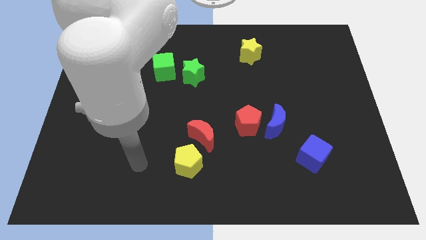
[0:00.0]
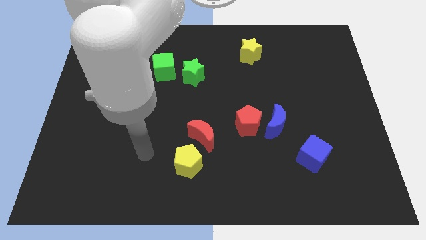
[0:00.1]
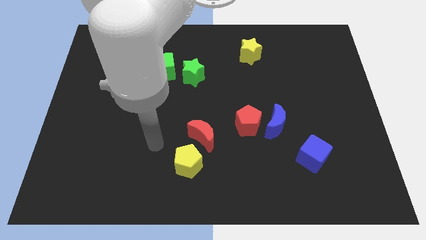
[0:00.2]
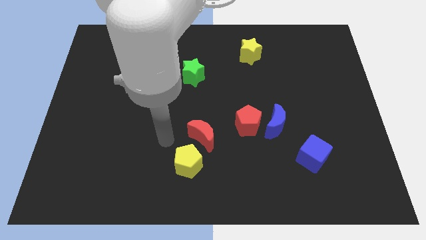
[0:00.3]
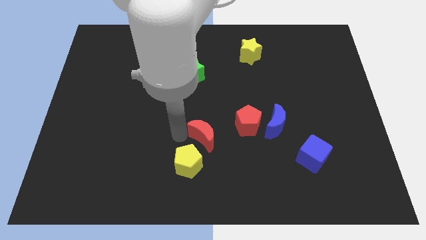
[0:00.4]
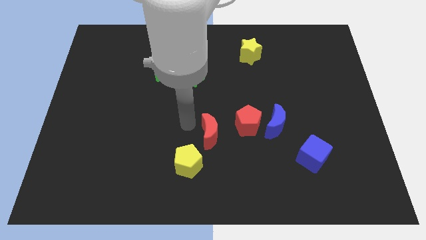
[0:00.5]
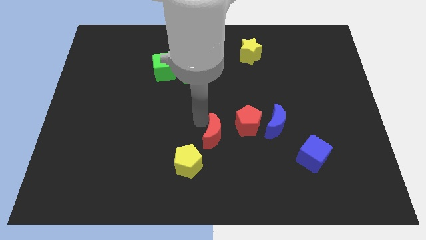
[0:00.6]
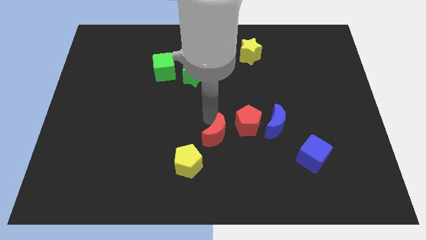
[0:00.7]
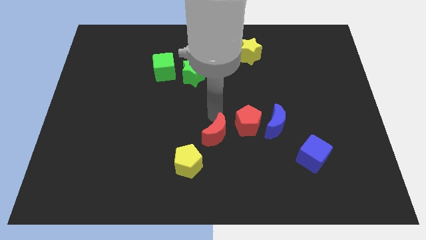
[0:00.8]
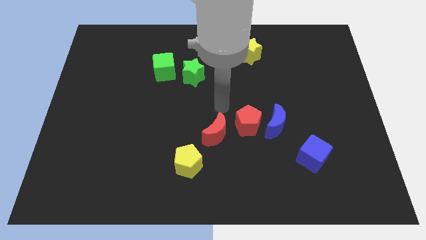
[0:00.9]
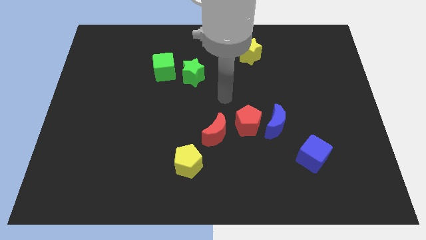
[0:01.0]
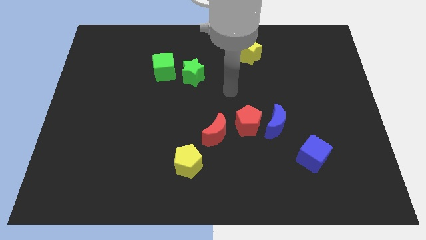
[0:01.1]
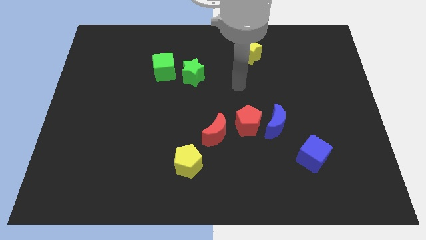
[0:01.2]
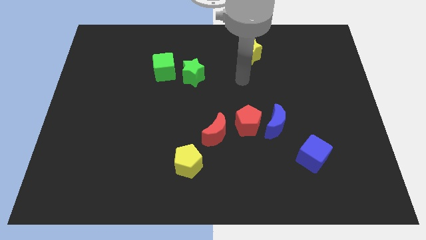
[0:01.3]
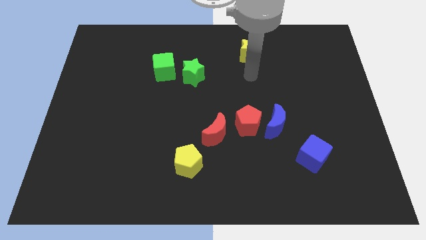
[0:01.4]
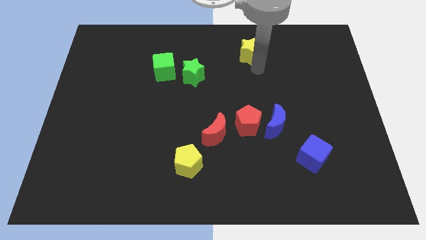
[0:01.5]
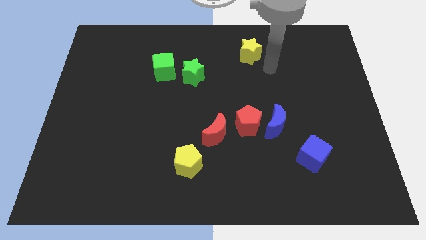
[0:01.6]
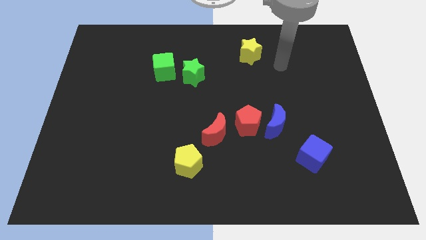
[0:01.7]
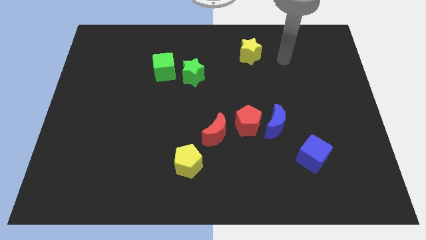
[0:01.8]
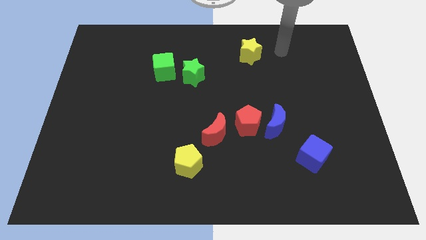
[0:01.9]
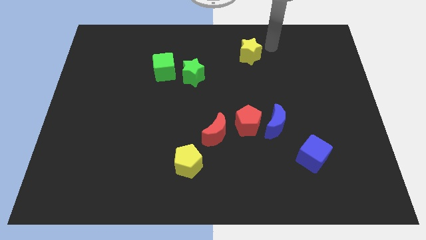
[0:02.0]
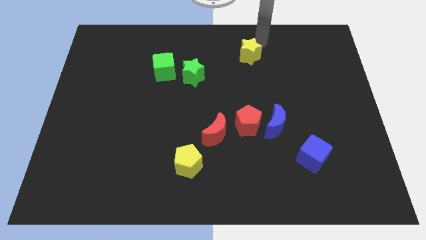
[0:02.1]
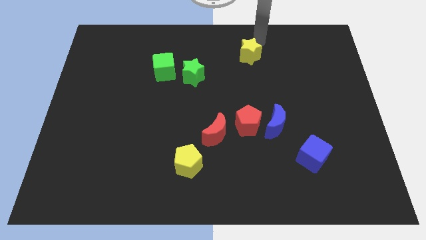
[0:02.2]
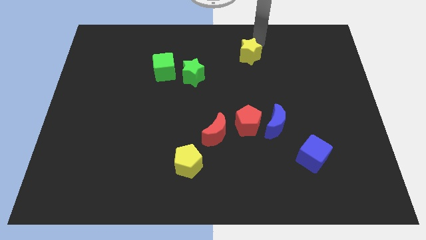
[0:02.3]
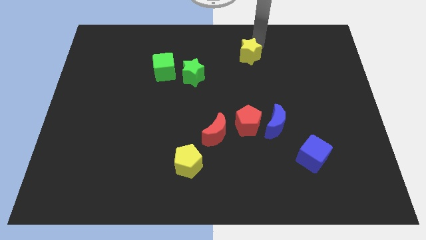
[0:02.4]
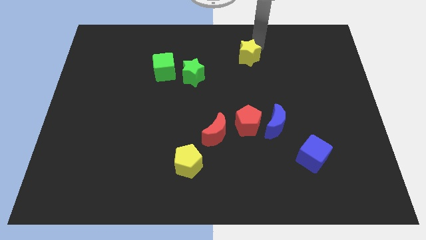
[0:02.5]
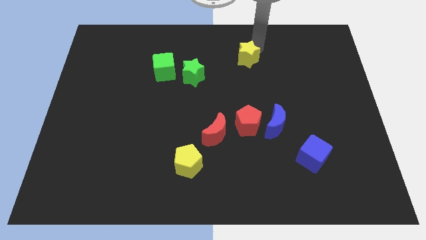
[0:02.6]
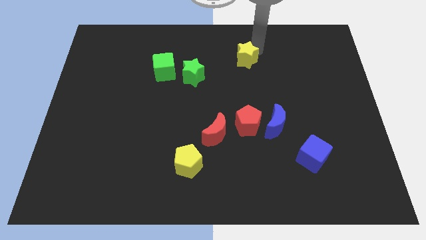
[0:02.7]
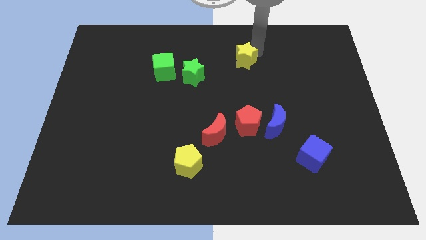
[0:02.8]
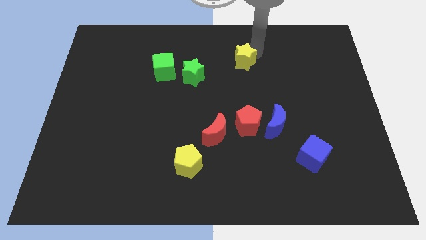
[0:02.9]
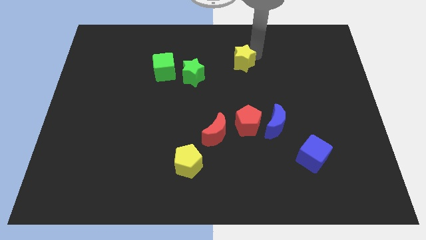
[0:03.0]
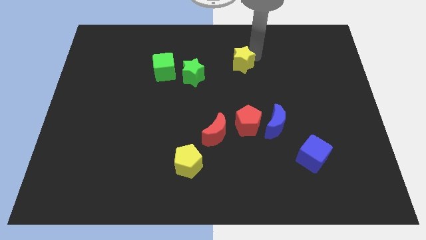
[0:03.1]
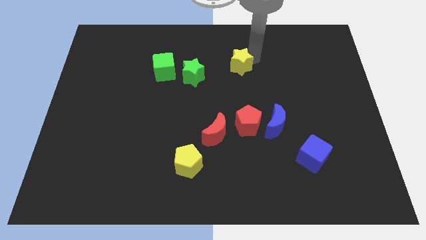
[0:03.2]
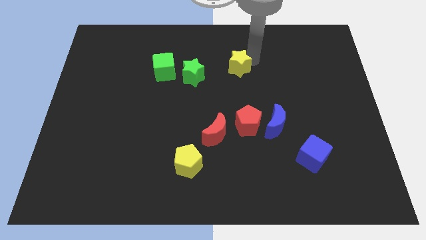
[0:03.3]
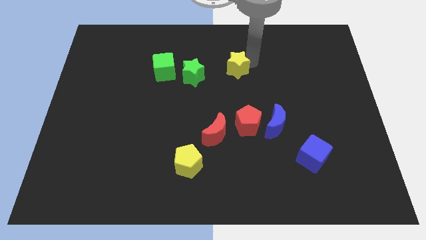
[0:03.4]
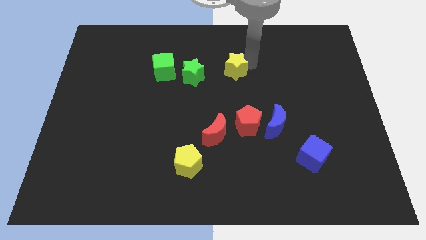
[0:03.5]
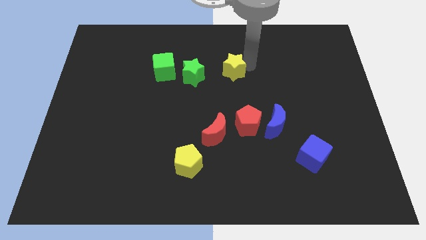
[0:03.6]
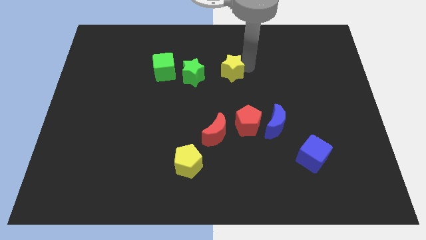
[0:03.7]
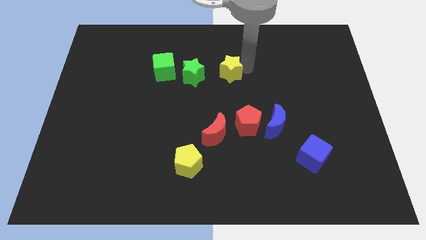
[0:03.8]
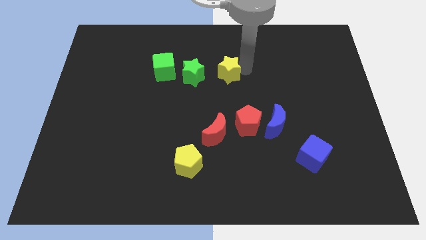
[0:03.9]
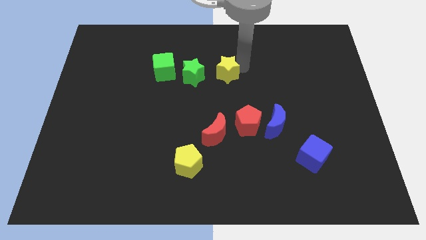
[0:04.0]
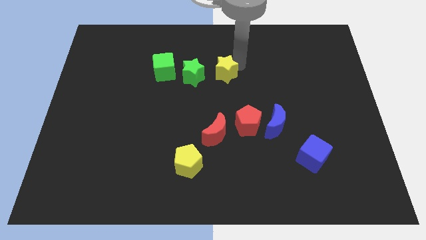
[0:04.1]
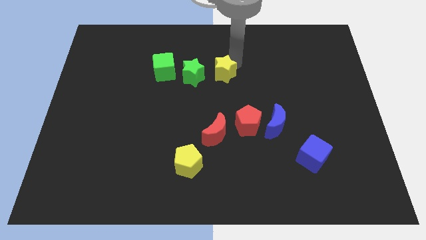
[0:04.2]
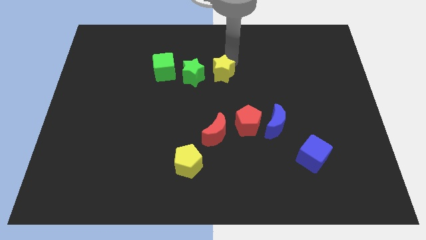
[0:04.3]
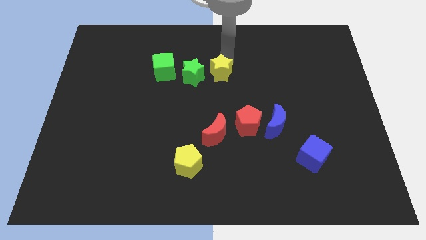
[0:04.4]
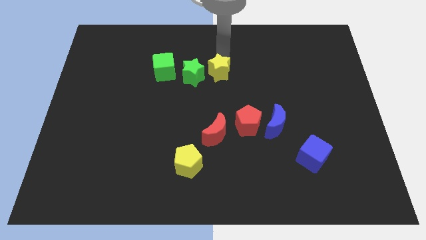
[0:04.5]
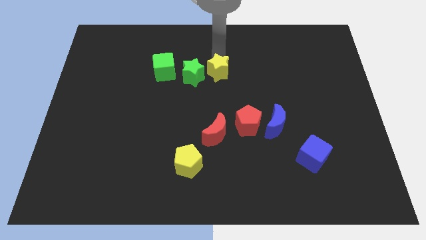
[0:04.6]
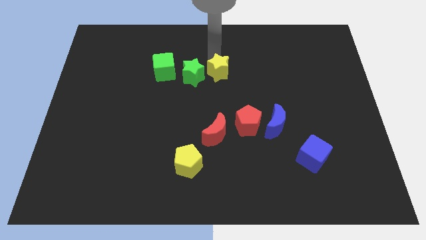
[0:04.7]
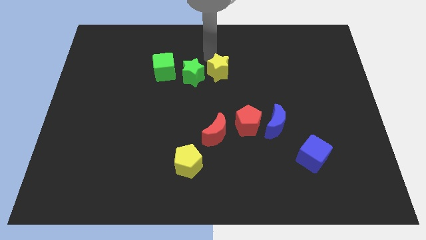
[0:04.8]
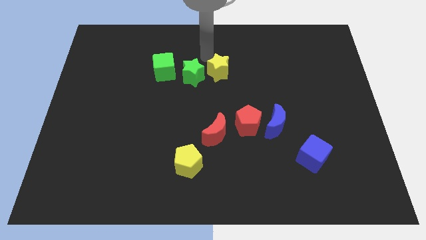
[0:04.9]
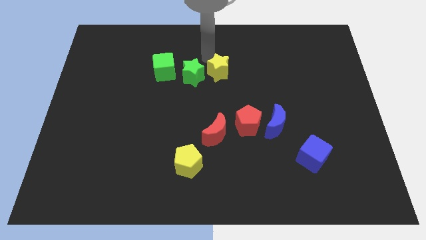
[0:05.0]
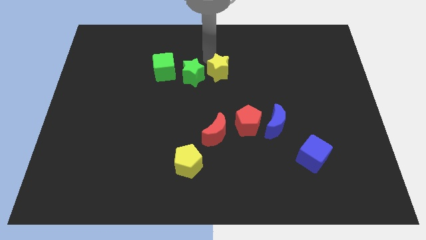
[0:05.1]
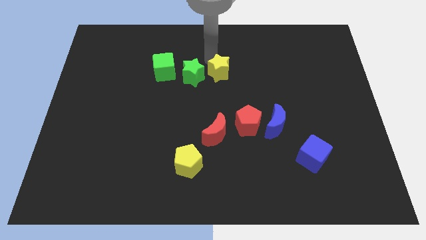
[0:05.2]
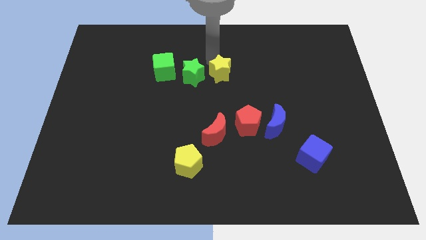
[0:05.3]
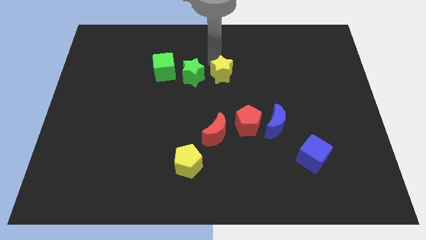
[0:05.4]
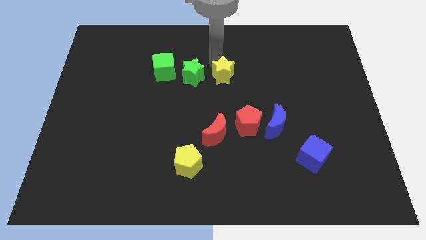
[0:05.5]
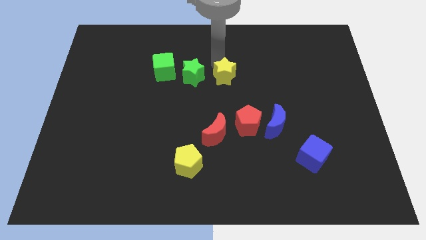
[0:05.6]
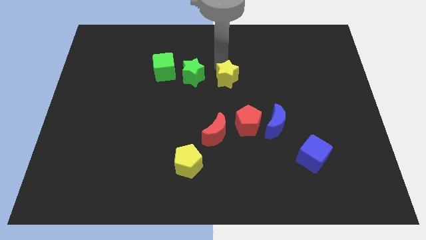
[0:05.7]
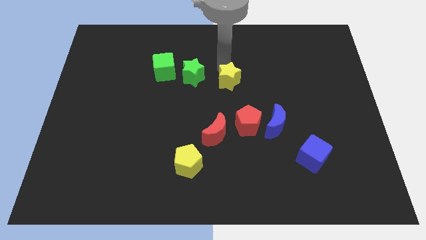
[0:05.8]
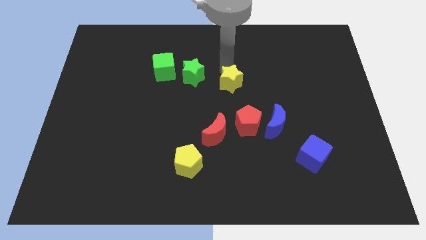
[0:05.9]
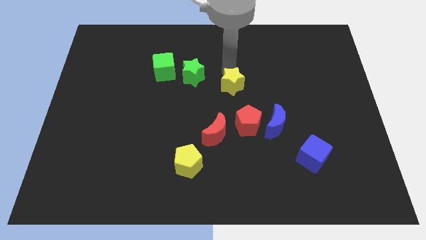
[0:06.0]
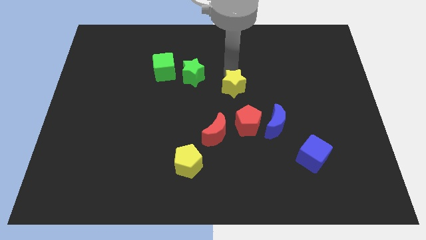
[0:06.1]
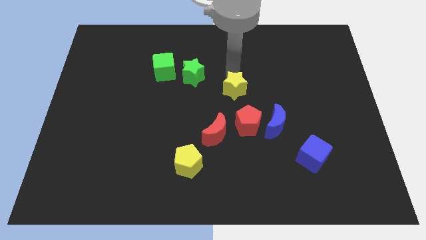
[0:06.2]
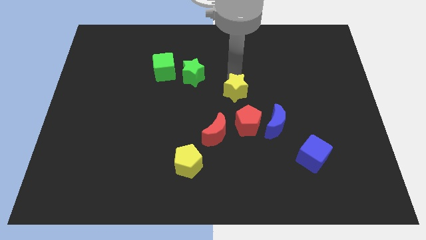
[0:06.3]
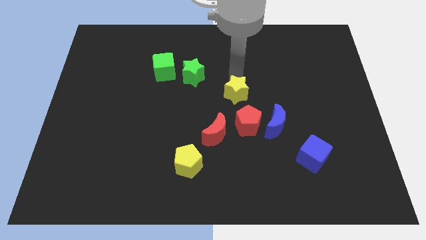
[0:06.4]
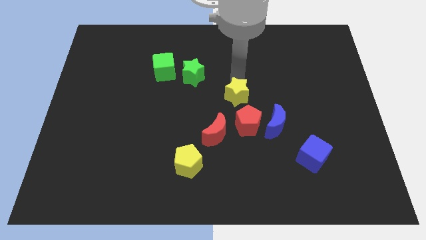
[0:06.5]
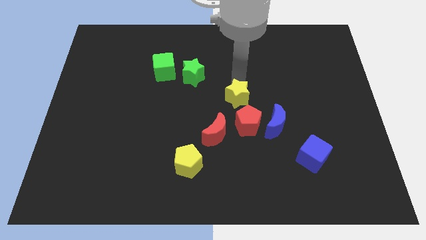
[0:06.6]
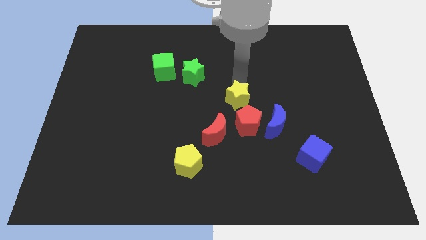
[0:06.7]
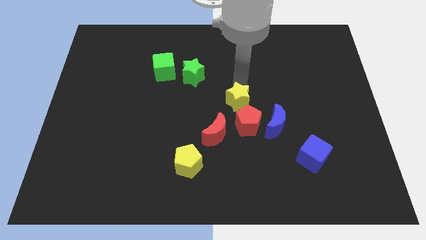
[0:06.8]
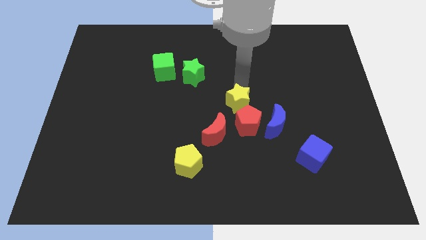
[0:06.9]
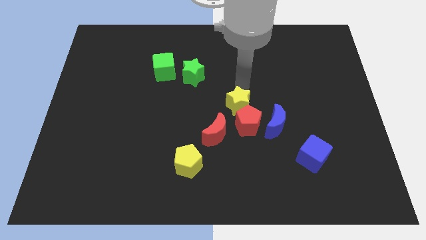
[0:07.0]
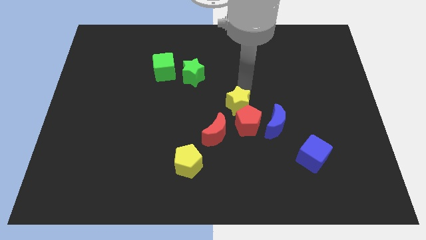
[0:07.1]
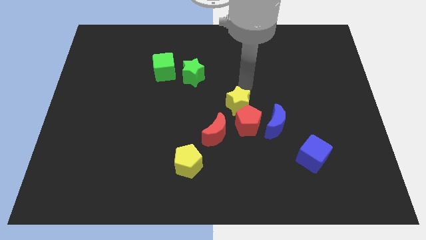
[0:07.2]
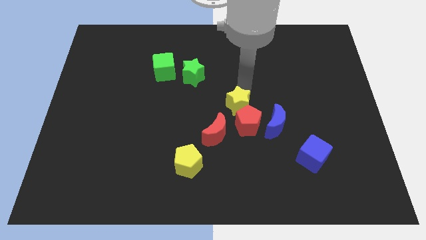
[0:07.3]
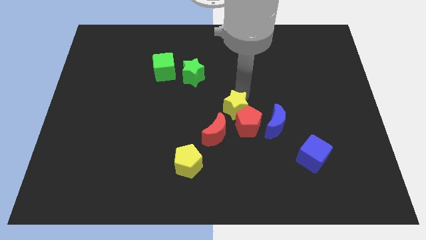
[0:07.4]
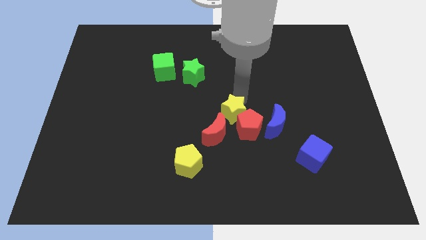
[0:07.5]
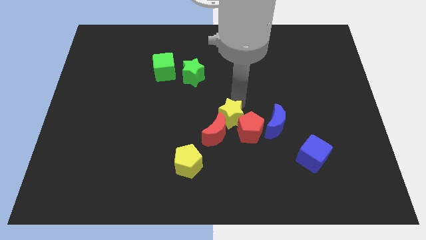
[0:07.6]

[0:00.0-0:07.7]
move the yellow star to the right side of the red moon

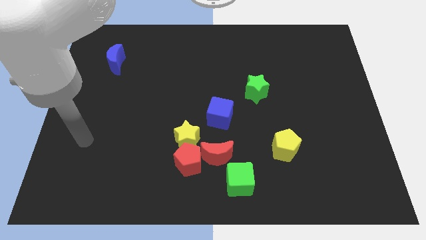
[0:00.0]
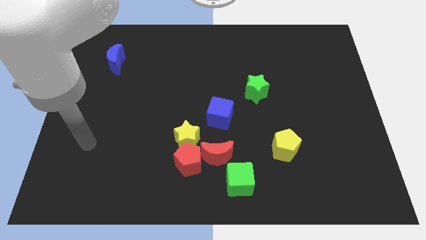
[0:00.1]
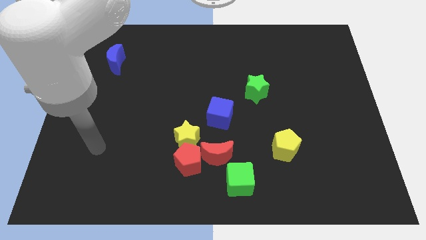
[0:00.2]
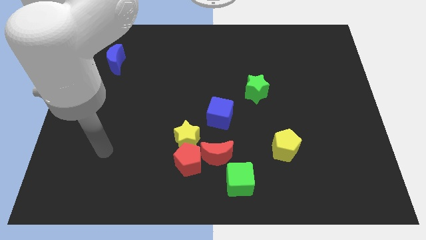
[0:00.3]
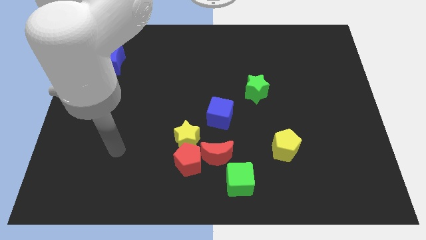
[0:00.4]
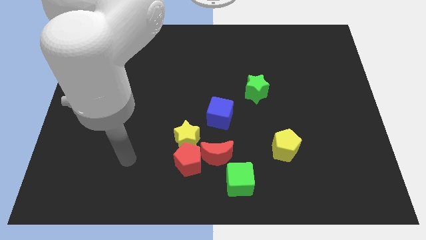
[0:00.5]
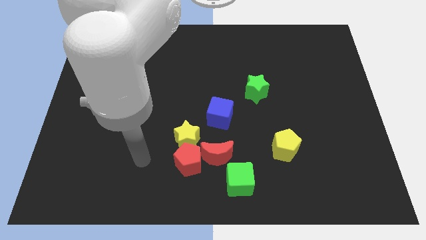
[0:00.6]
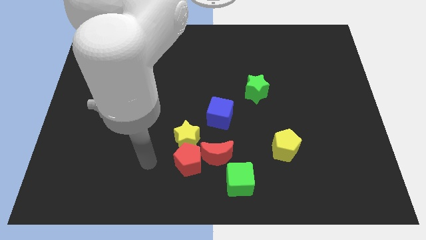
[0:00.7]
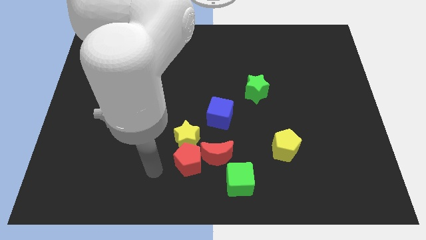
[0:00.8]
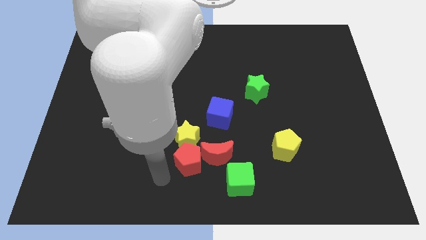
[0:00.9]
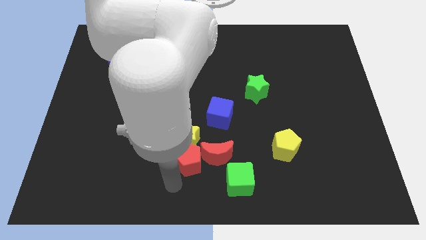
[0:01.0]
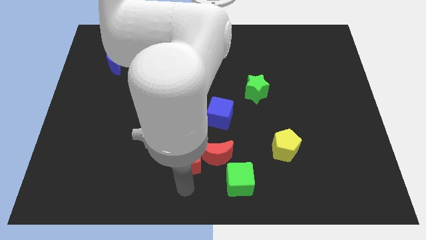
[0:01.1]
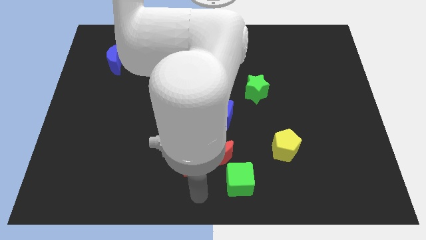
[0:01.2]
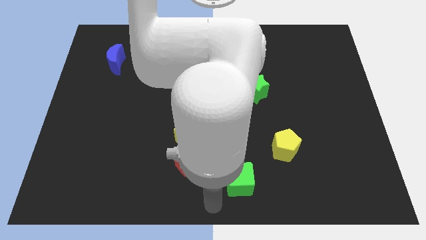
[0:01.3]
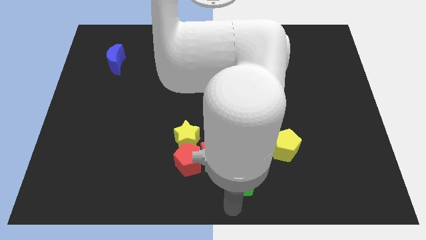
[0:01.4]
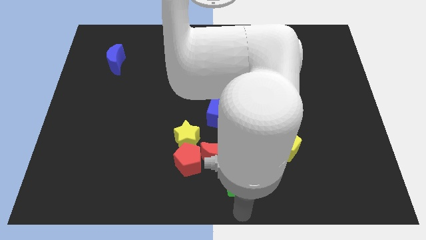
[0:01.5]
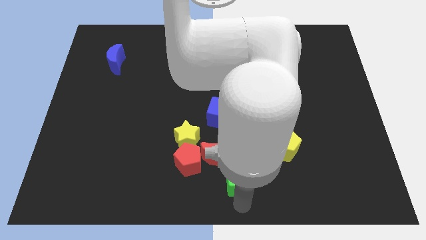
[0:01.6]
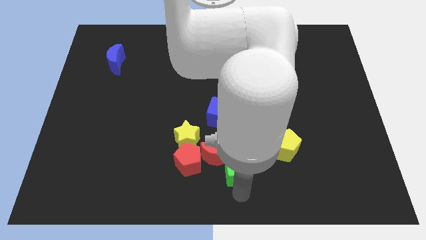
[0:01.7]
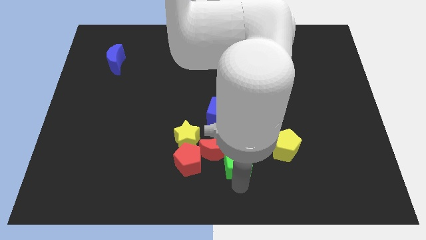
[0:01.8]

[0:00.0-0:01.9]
put the green cube left of the yellow pentagon
